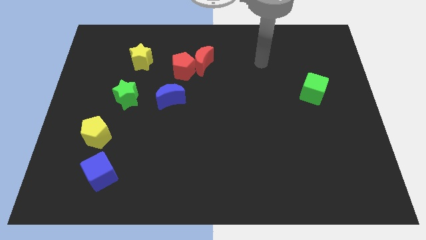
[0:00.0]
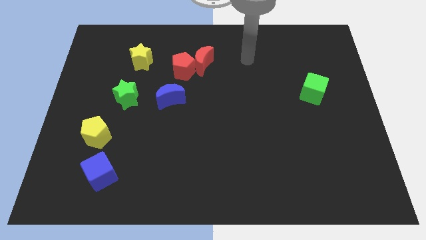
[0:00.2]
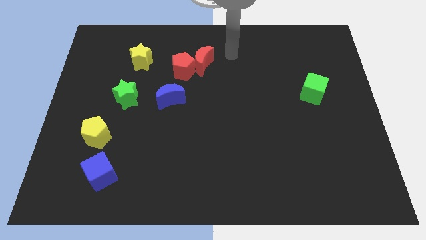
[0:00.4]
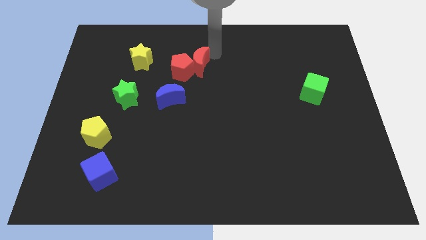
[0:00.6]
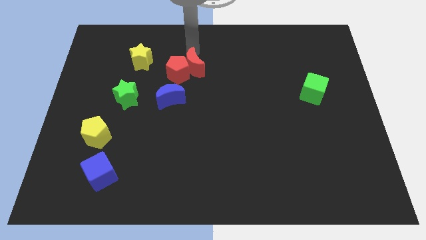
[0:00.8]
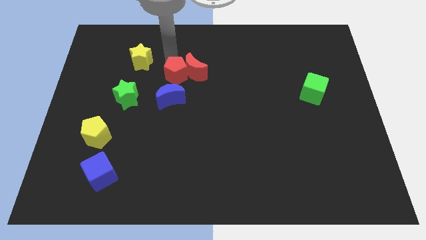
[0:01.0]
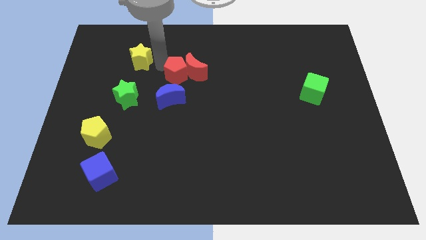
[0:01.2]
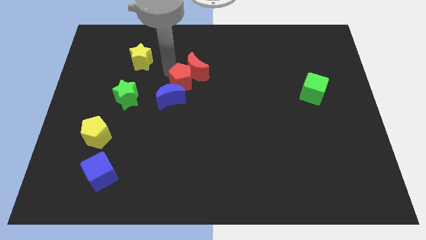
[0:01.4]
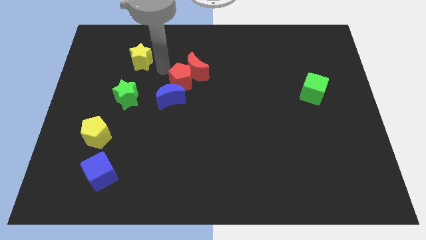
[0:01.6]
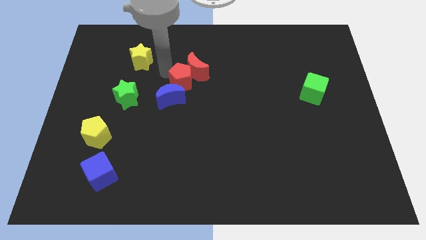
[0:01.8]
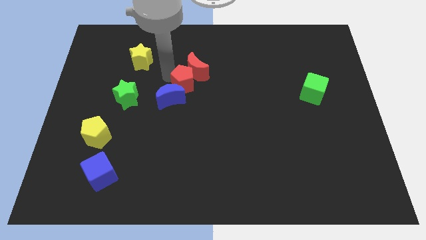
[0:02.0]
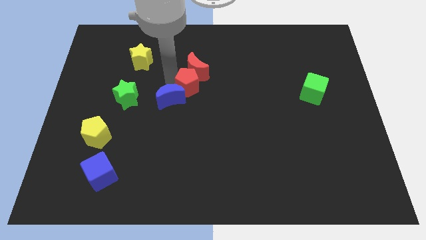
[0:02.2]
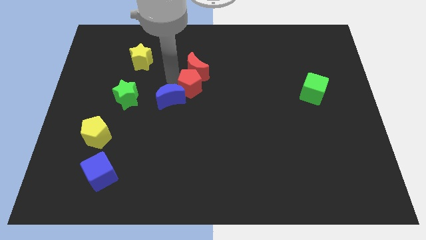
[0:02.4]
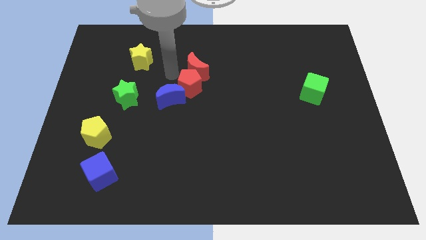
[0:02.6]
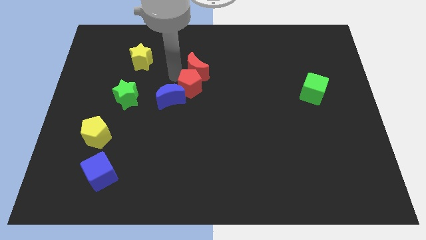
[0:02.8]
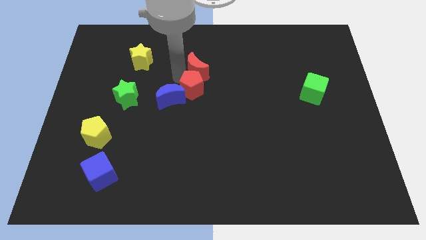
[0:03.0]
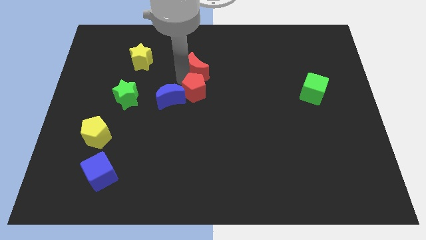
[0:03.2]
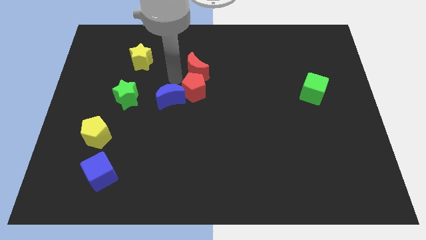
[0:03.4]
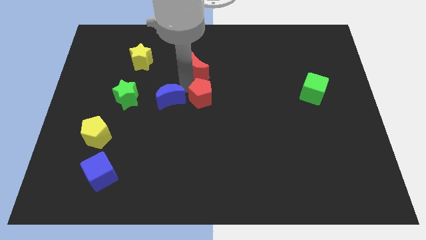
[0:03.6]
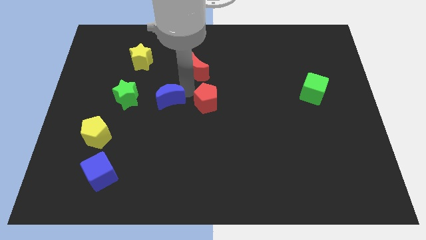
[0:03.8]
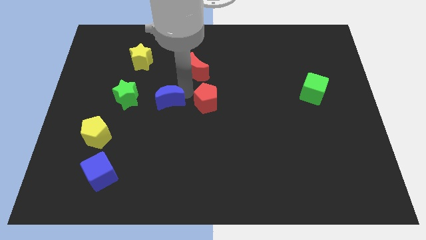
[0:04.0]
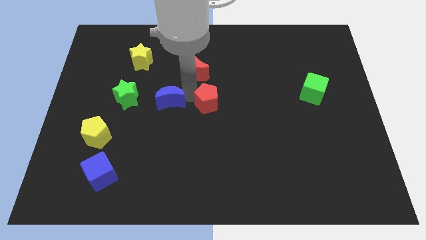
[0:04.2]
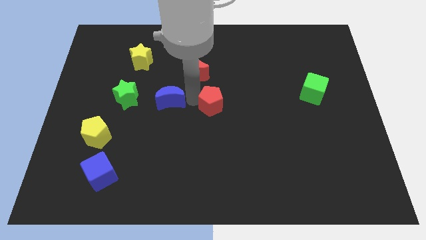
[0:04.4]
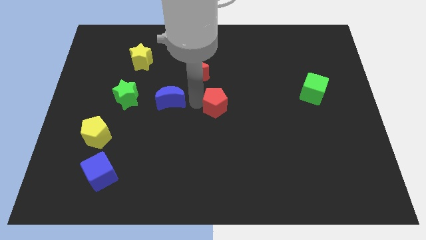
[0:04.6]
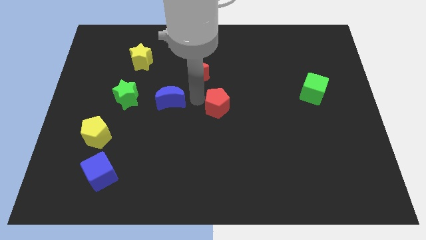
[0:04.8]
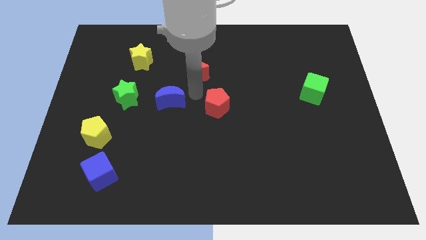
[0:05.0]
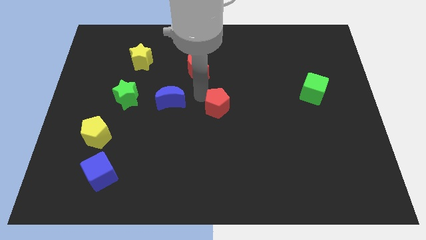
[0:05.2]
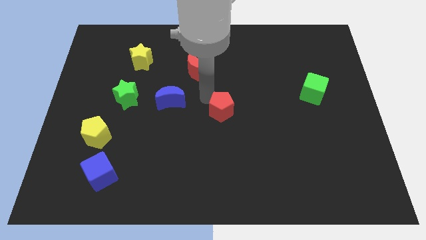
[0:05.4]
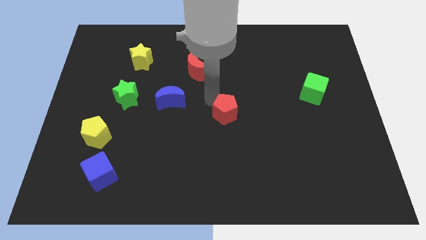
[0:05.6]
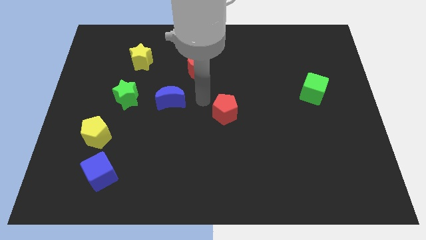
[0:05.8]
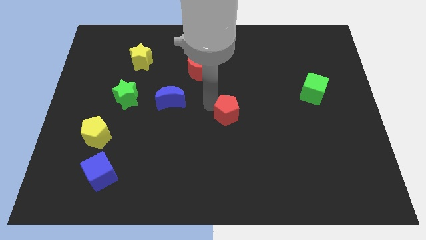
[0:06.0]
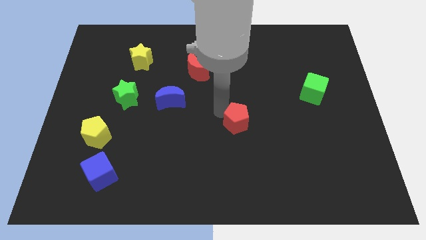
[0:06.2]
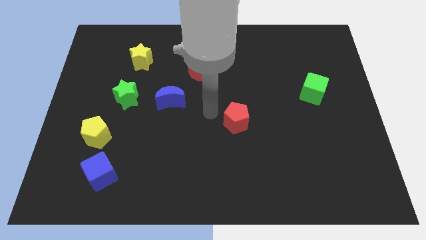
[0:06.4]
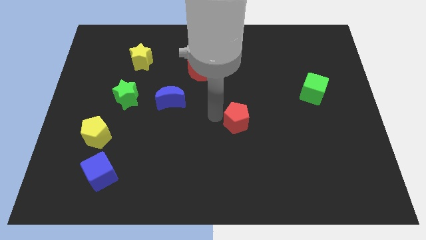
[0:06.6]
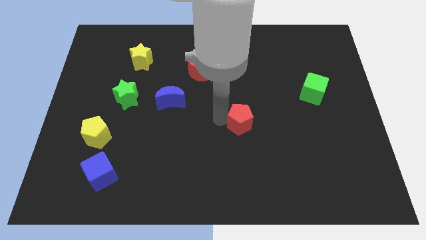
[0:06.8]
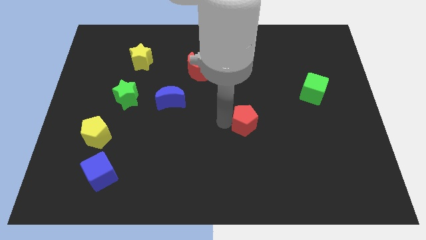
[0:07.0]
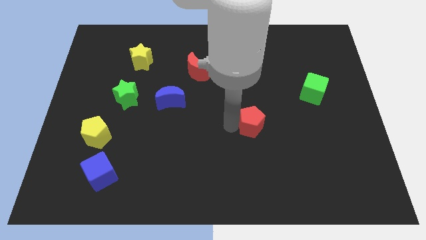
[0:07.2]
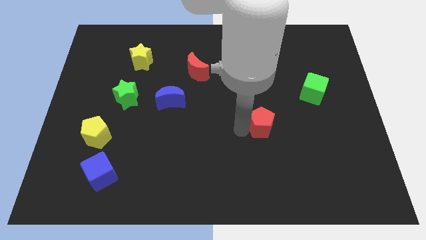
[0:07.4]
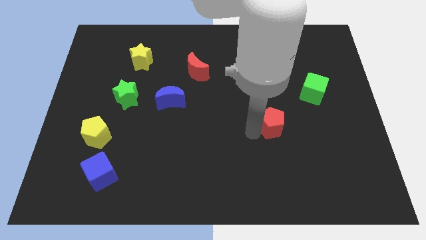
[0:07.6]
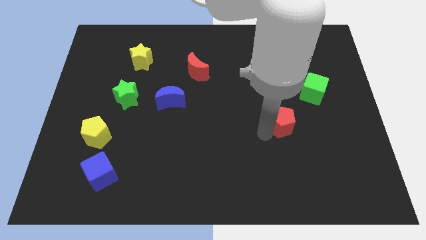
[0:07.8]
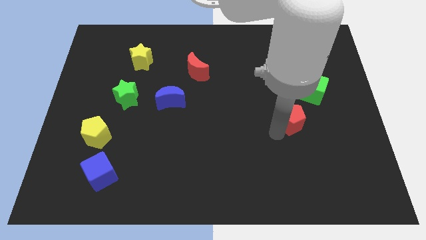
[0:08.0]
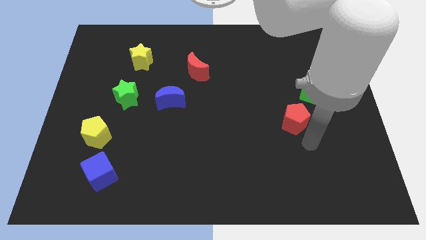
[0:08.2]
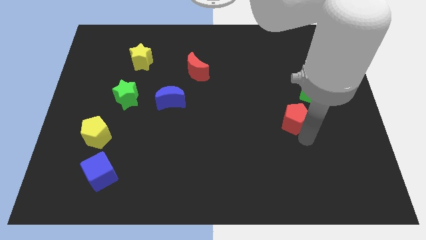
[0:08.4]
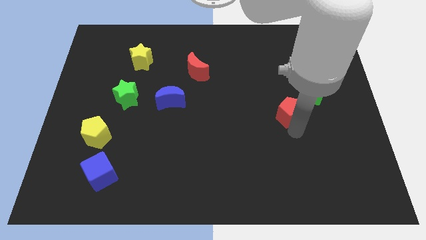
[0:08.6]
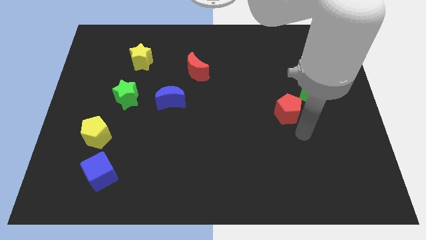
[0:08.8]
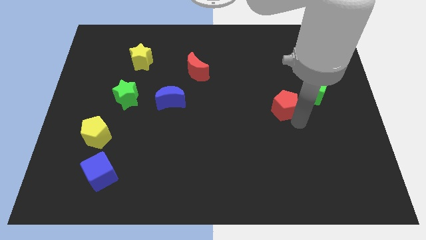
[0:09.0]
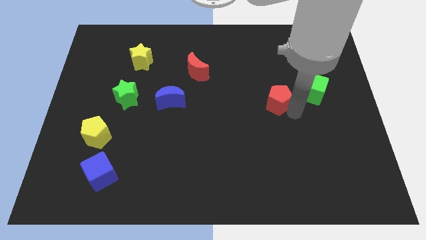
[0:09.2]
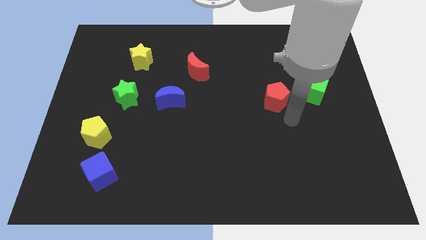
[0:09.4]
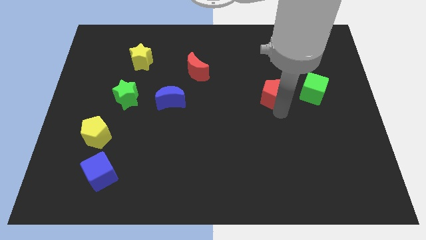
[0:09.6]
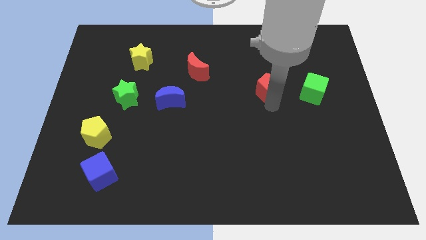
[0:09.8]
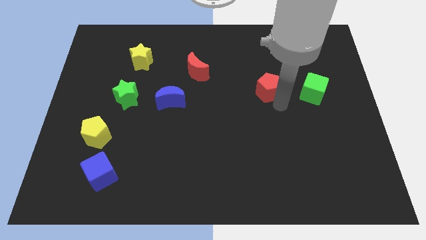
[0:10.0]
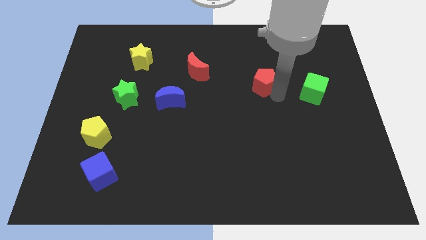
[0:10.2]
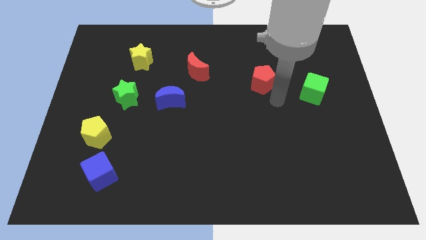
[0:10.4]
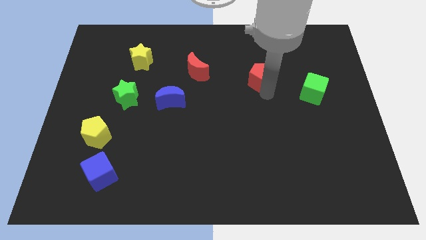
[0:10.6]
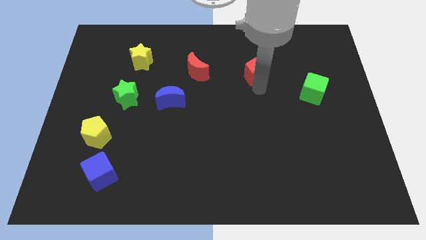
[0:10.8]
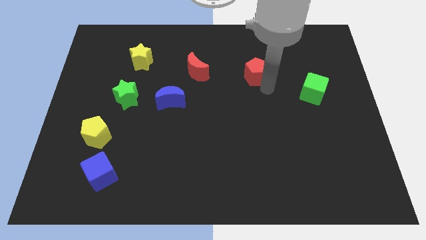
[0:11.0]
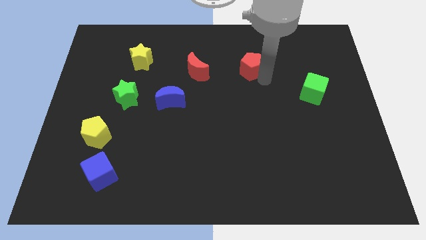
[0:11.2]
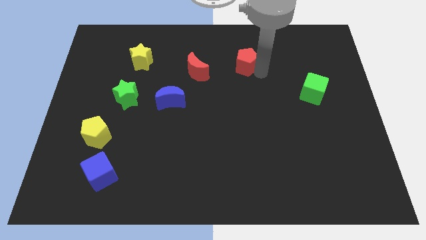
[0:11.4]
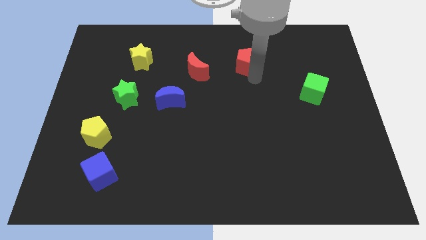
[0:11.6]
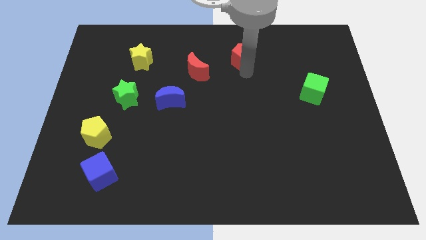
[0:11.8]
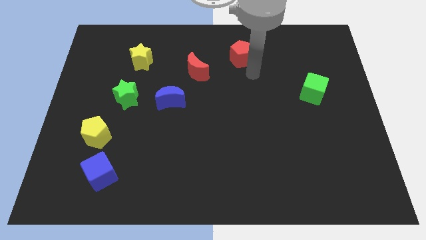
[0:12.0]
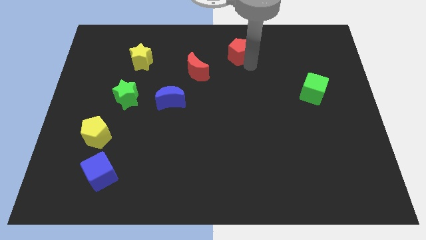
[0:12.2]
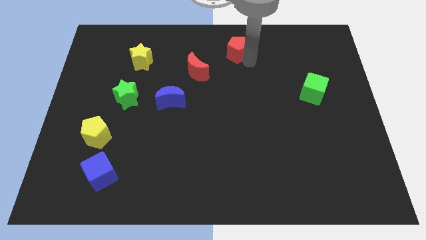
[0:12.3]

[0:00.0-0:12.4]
push the red pentagon to the top
